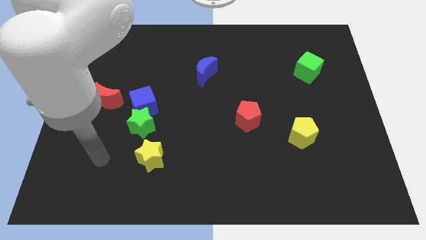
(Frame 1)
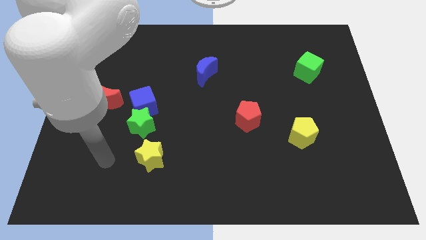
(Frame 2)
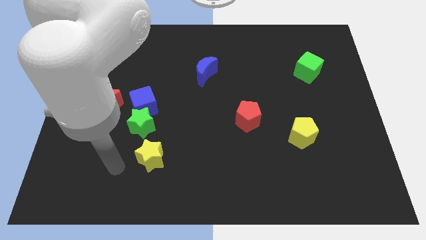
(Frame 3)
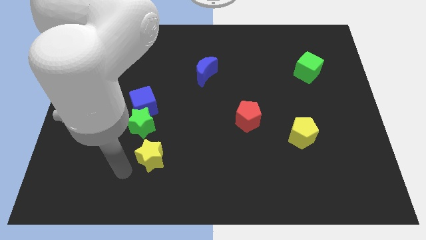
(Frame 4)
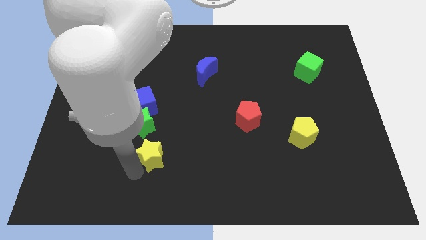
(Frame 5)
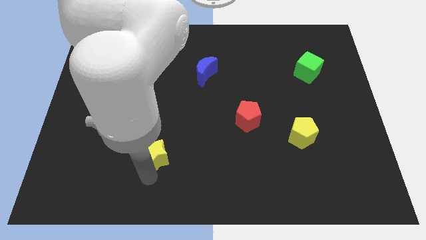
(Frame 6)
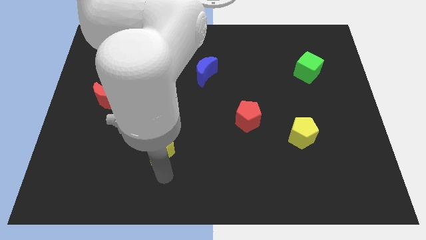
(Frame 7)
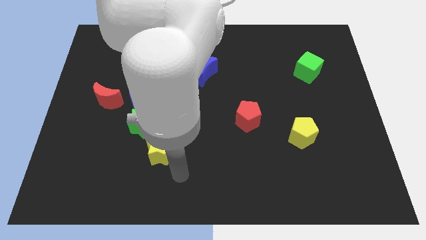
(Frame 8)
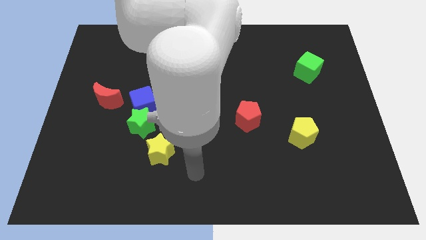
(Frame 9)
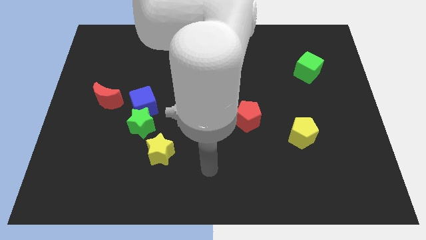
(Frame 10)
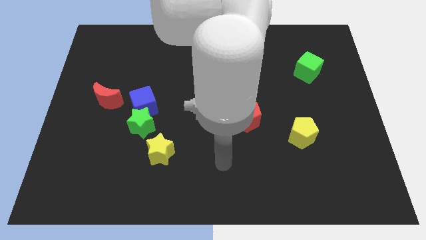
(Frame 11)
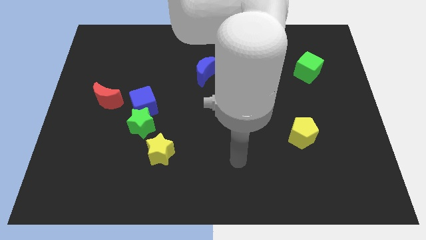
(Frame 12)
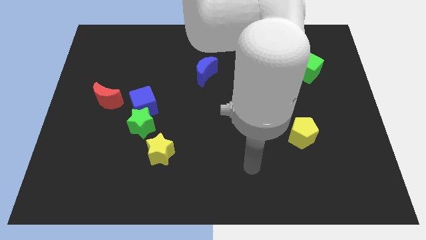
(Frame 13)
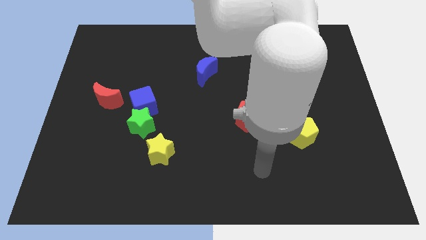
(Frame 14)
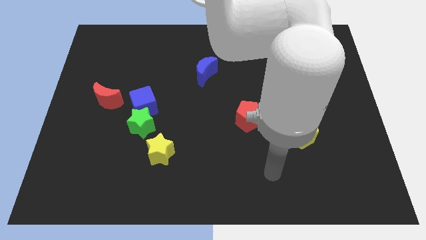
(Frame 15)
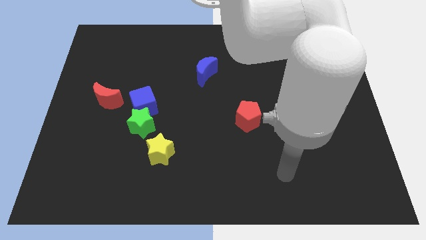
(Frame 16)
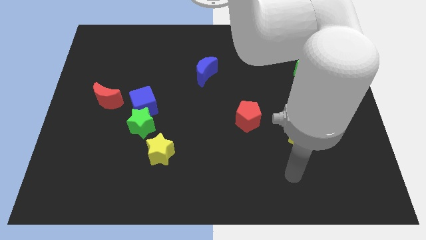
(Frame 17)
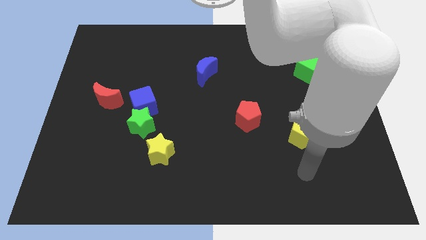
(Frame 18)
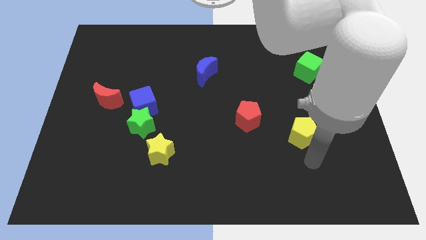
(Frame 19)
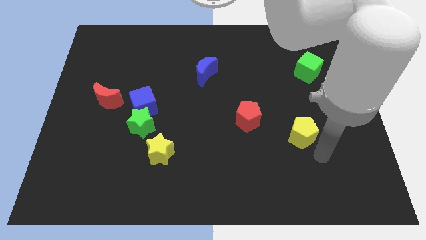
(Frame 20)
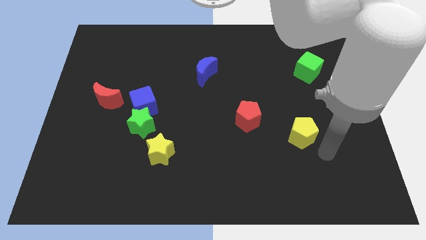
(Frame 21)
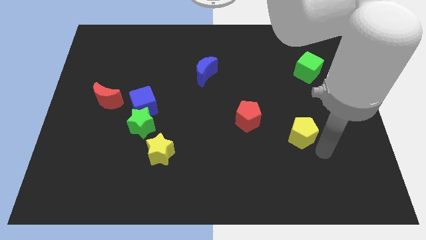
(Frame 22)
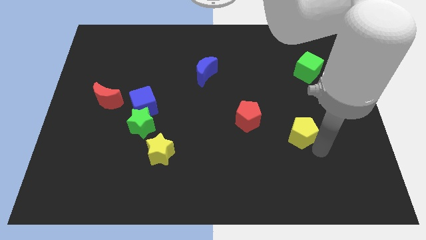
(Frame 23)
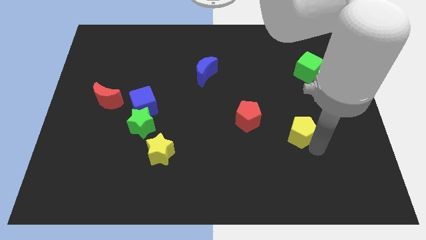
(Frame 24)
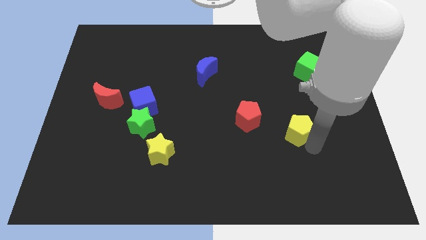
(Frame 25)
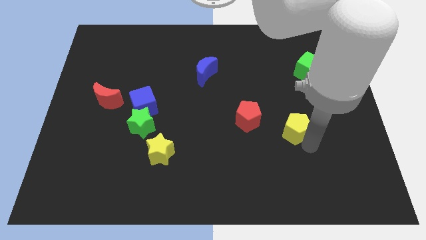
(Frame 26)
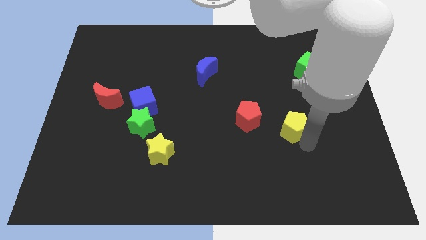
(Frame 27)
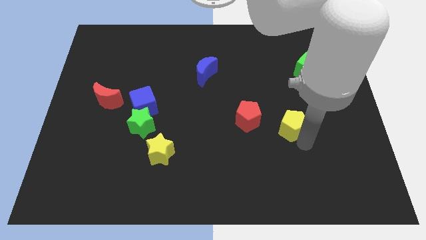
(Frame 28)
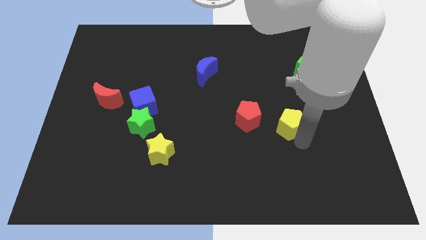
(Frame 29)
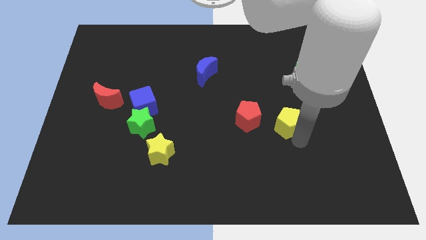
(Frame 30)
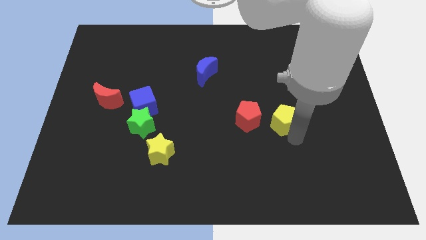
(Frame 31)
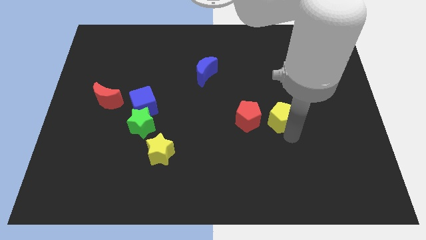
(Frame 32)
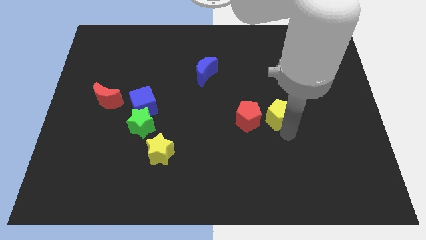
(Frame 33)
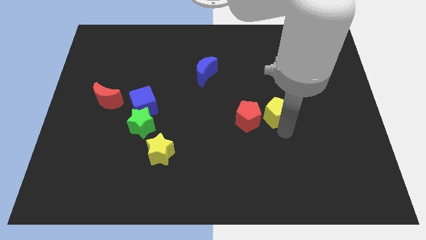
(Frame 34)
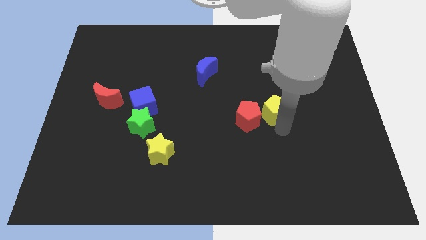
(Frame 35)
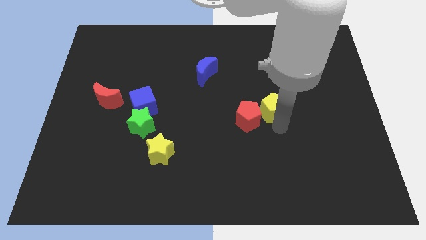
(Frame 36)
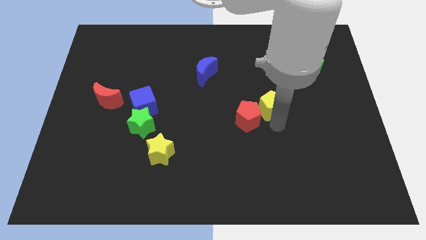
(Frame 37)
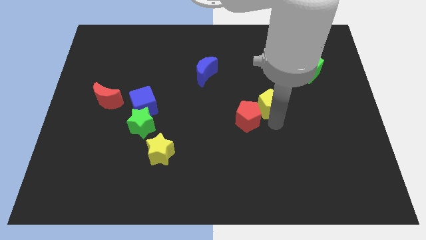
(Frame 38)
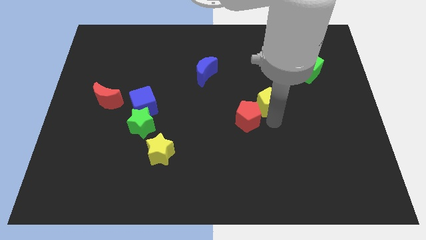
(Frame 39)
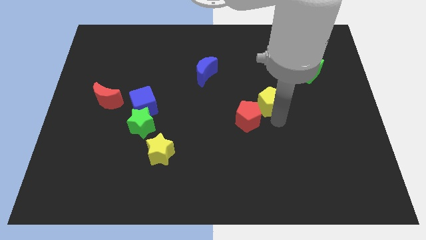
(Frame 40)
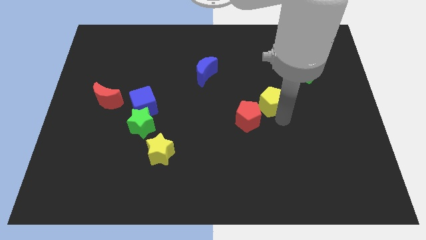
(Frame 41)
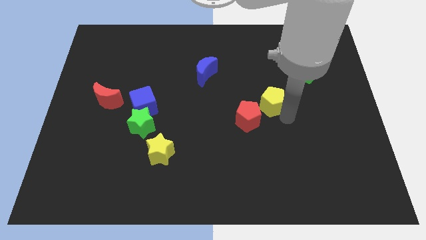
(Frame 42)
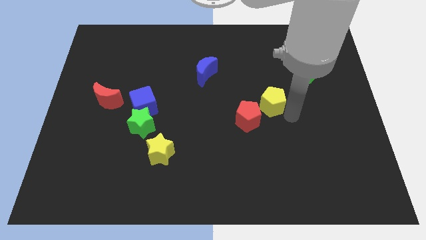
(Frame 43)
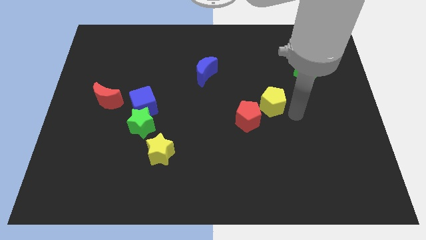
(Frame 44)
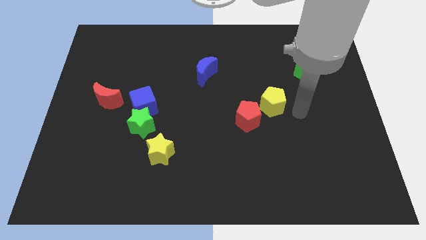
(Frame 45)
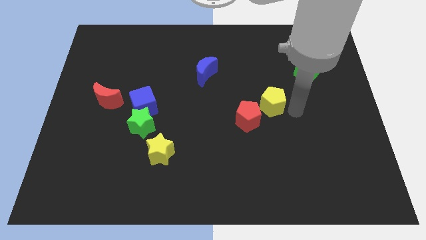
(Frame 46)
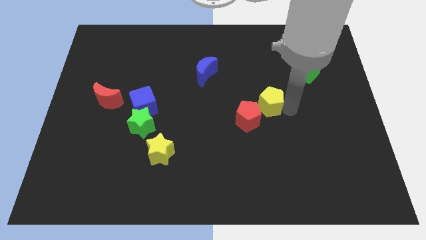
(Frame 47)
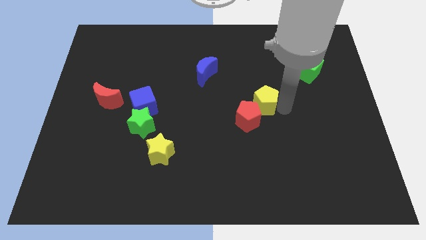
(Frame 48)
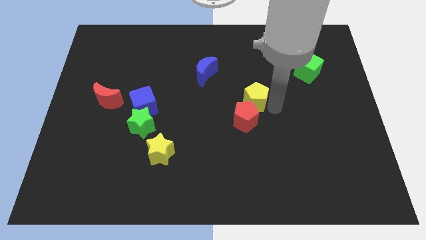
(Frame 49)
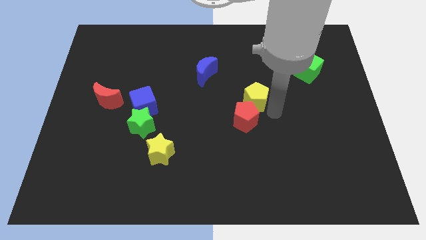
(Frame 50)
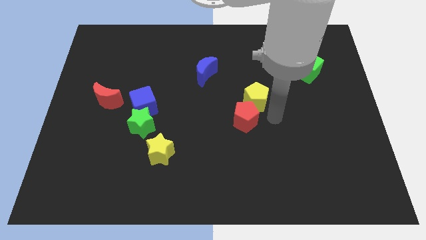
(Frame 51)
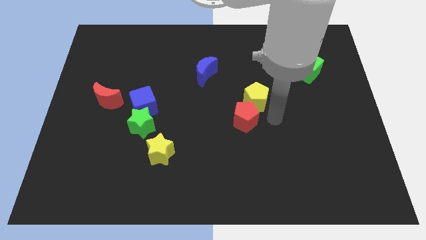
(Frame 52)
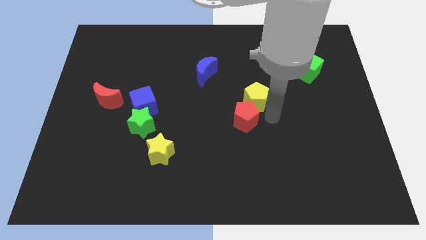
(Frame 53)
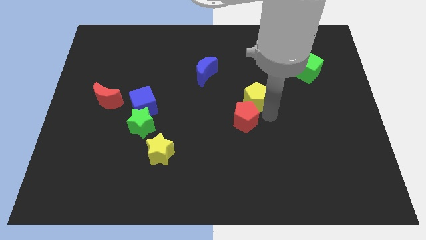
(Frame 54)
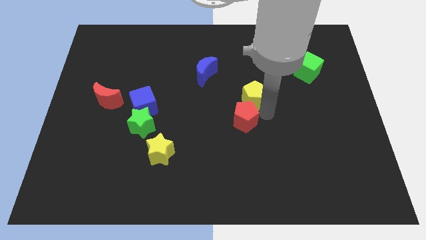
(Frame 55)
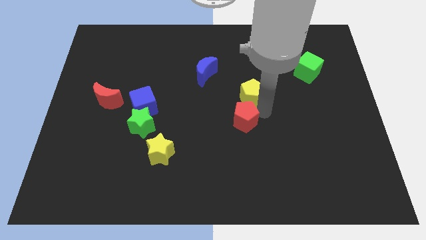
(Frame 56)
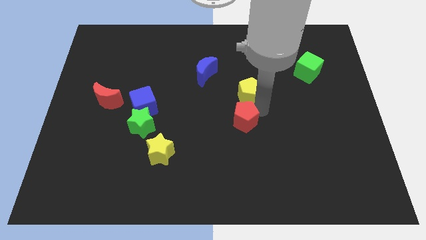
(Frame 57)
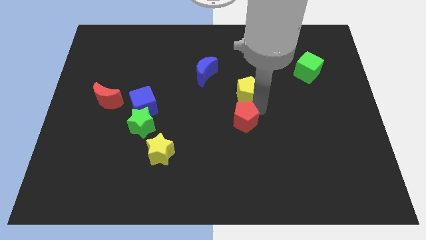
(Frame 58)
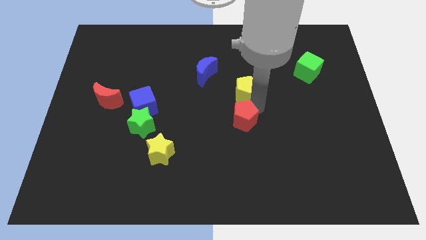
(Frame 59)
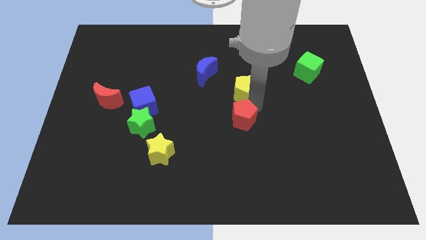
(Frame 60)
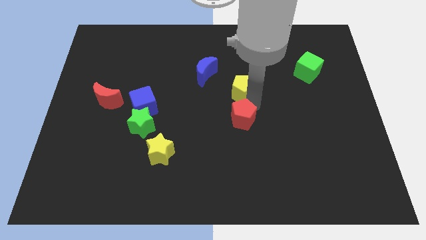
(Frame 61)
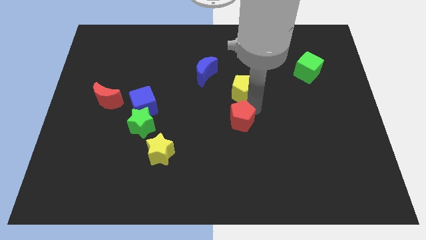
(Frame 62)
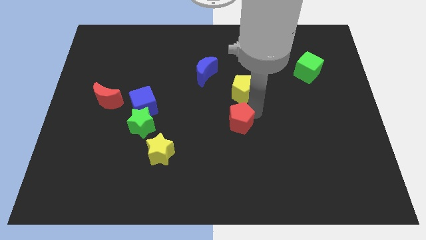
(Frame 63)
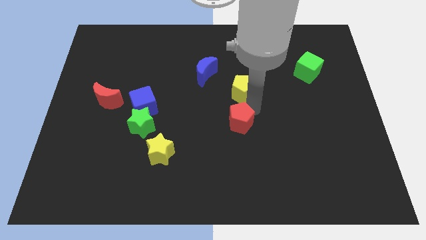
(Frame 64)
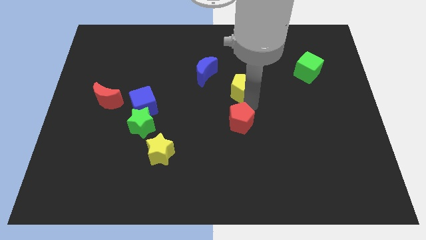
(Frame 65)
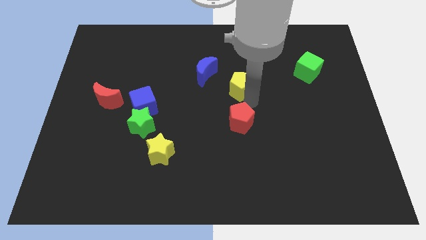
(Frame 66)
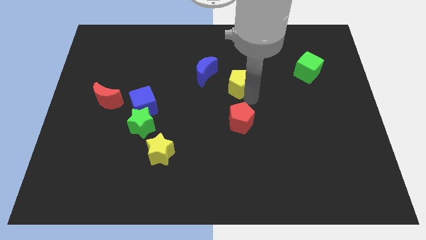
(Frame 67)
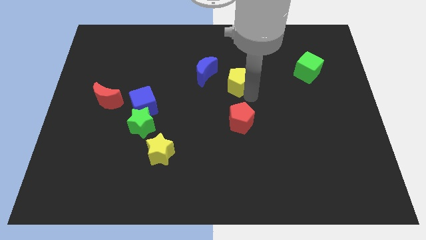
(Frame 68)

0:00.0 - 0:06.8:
move the yellow pentagon up and left diagonally

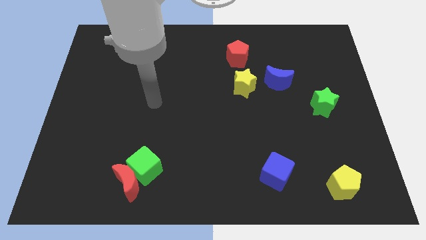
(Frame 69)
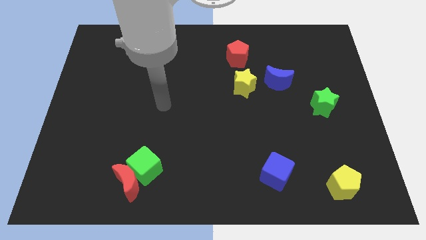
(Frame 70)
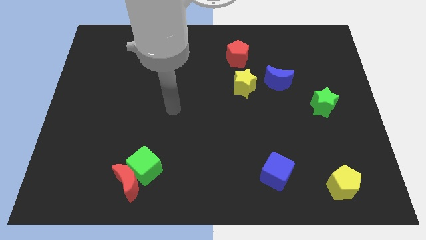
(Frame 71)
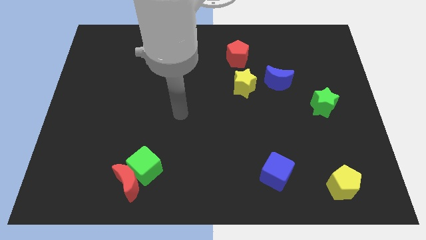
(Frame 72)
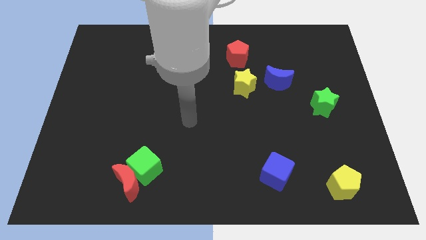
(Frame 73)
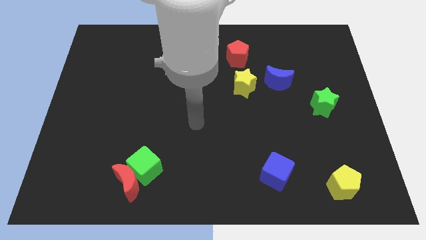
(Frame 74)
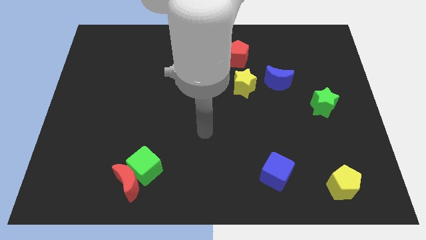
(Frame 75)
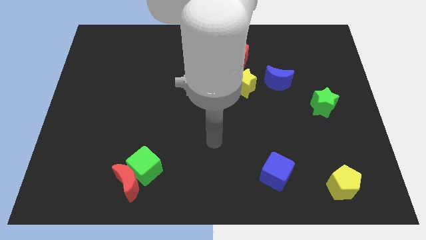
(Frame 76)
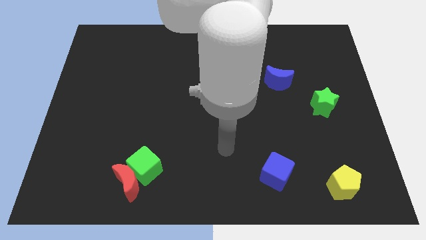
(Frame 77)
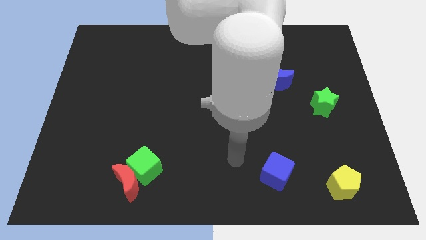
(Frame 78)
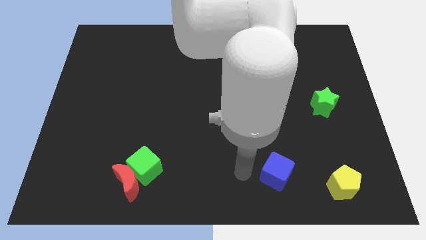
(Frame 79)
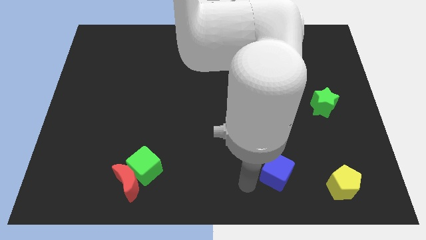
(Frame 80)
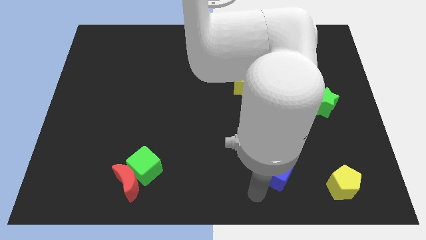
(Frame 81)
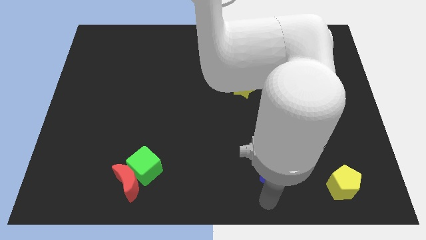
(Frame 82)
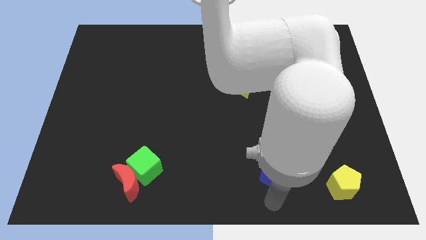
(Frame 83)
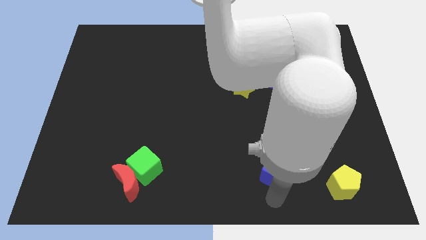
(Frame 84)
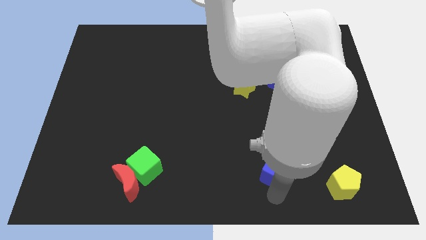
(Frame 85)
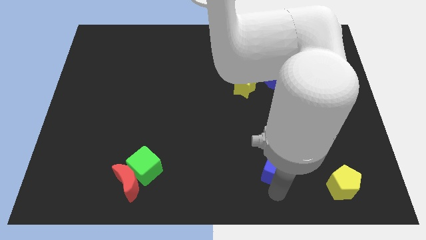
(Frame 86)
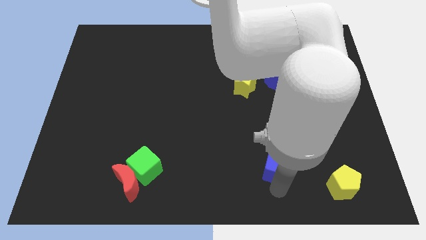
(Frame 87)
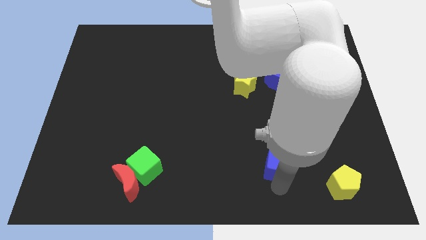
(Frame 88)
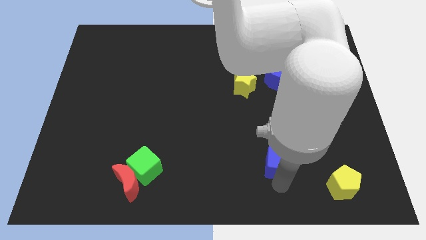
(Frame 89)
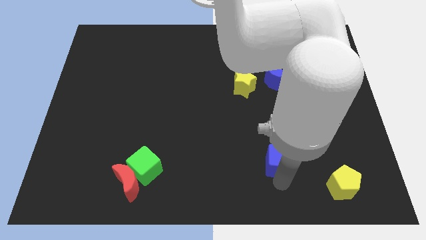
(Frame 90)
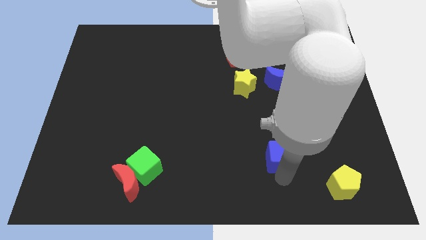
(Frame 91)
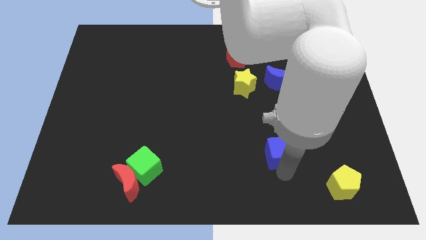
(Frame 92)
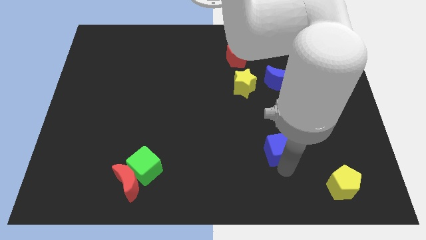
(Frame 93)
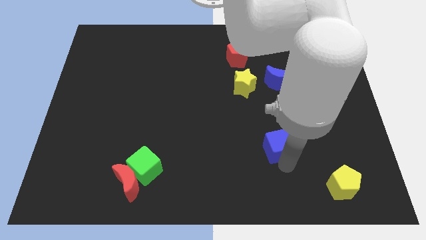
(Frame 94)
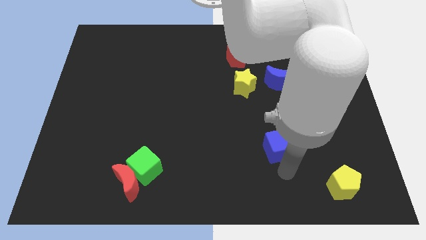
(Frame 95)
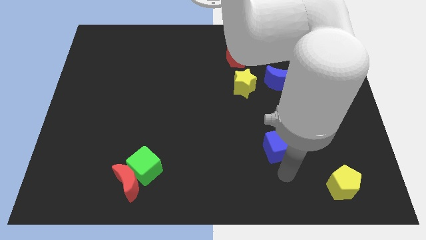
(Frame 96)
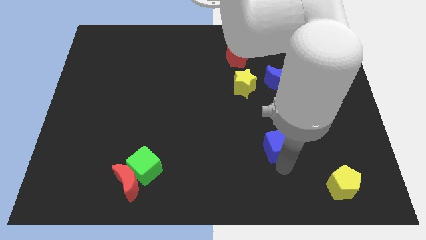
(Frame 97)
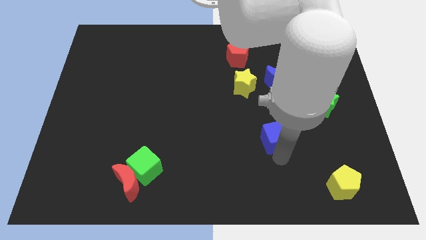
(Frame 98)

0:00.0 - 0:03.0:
slightly move the blue cube upwards
